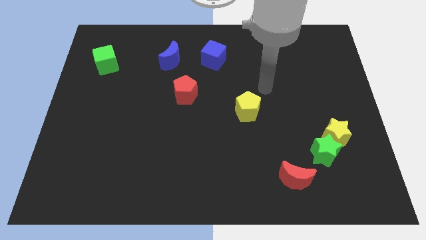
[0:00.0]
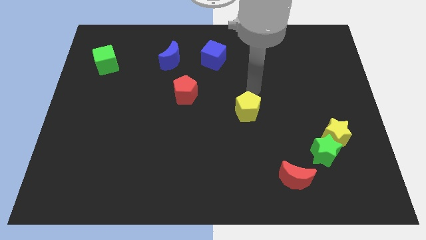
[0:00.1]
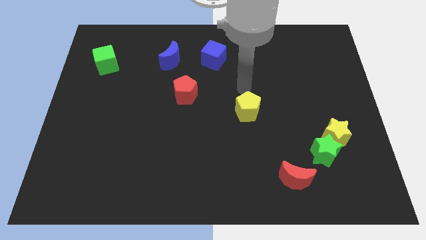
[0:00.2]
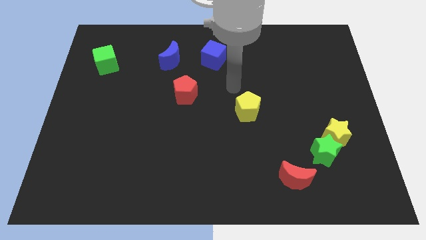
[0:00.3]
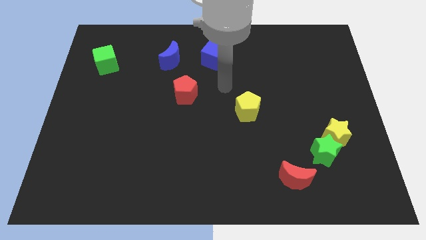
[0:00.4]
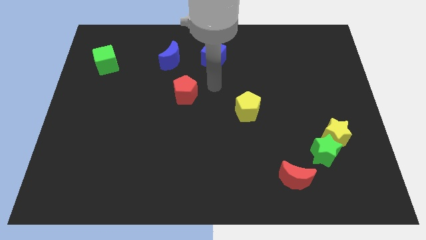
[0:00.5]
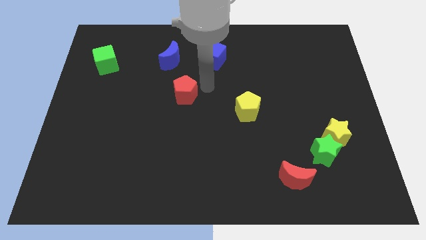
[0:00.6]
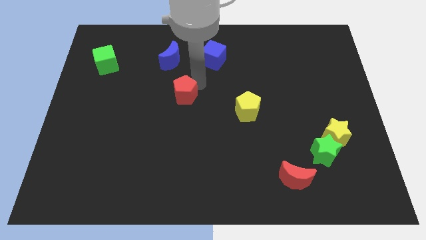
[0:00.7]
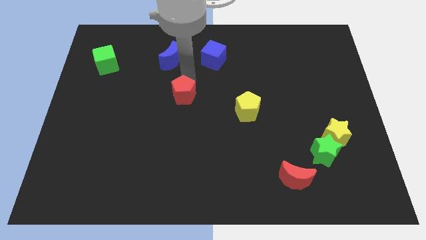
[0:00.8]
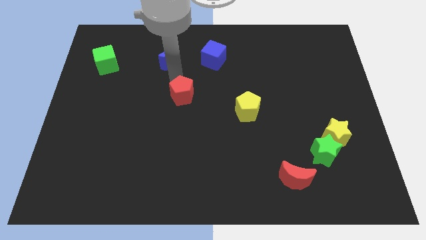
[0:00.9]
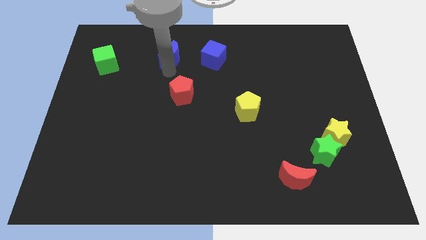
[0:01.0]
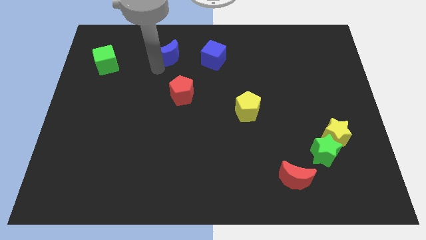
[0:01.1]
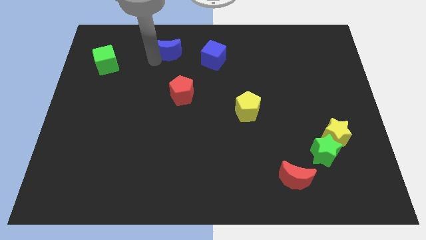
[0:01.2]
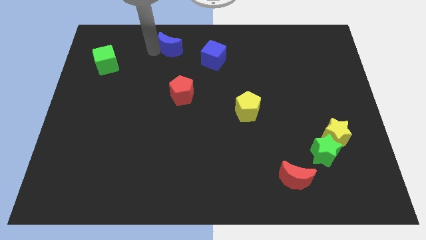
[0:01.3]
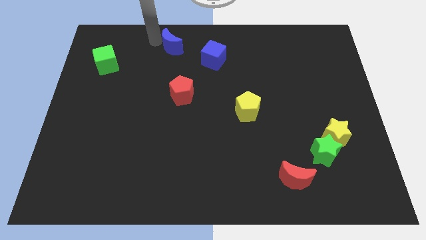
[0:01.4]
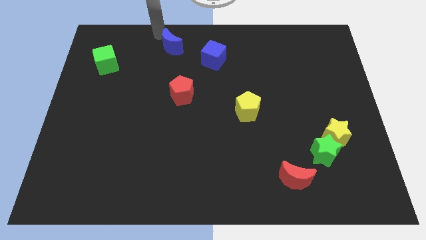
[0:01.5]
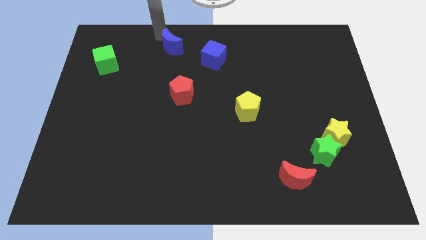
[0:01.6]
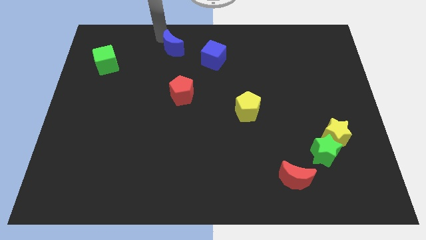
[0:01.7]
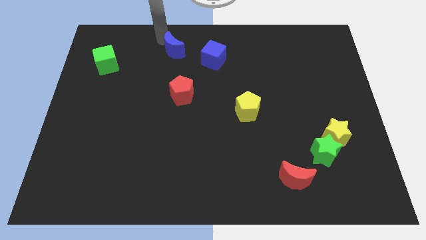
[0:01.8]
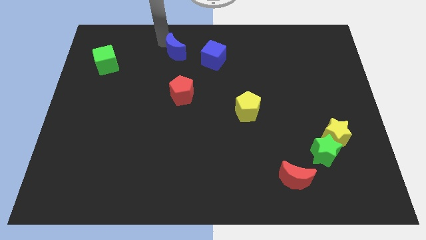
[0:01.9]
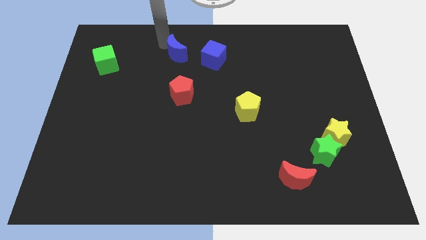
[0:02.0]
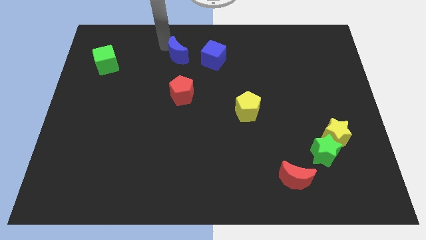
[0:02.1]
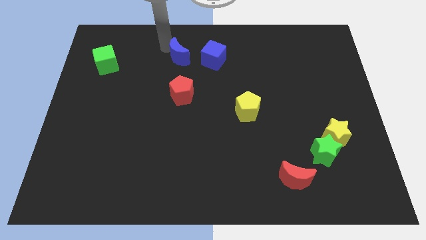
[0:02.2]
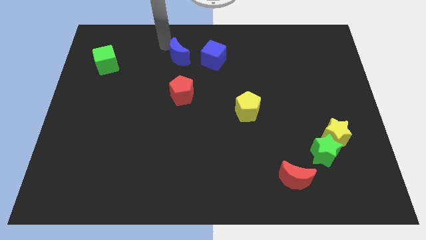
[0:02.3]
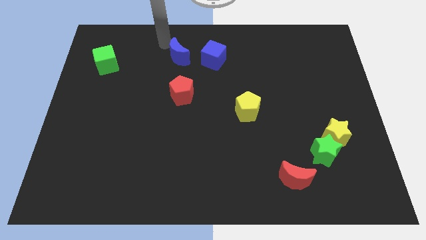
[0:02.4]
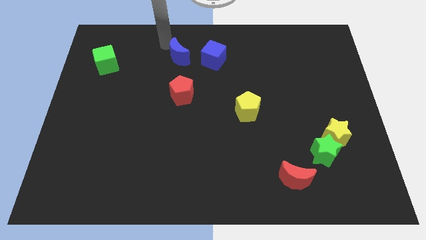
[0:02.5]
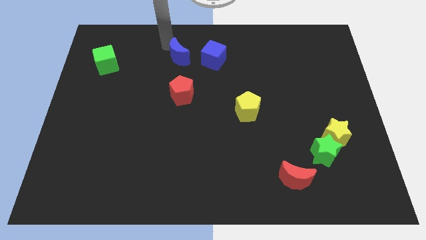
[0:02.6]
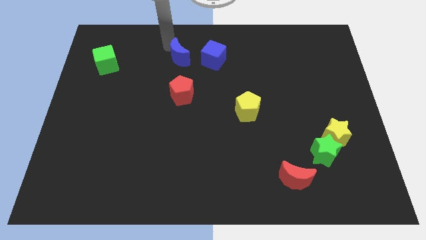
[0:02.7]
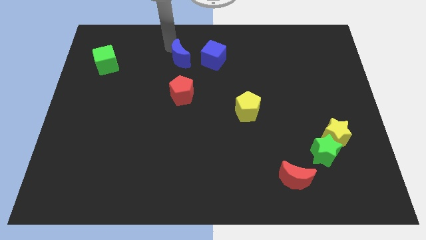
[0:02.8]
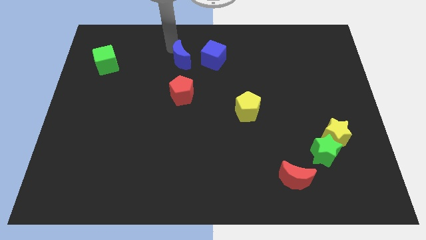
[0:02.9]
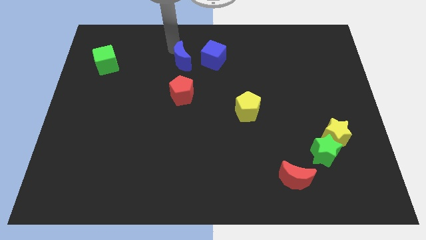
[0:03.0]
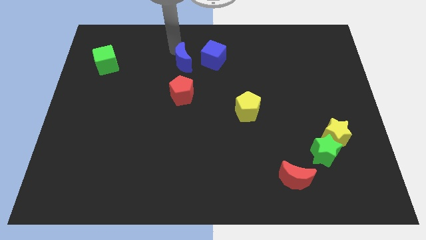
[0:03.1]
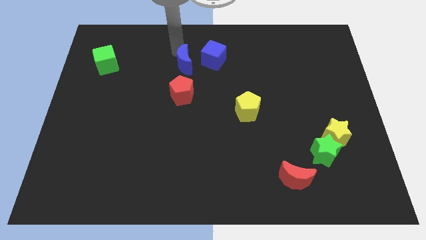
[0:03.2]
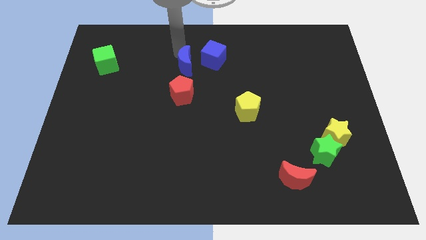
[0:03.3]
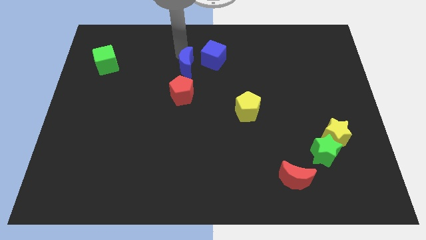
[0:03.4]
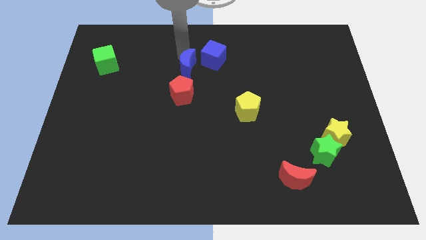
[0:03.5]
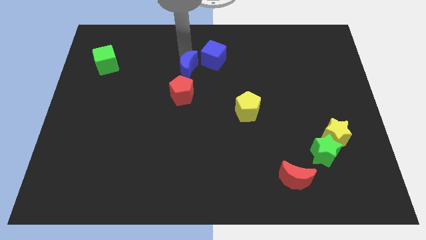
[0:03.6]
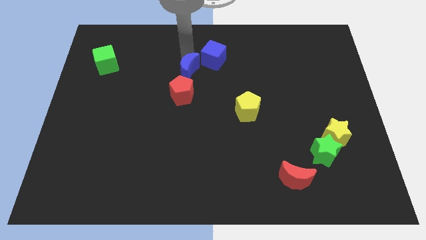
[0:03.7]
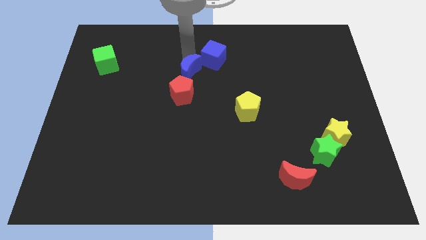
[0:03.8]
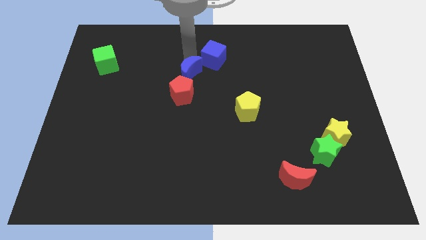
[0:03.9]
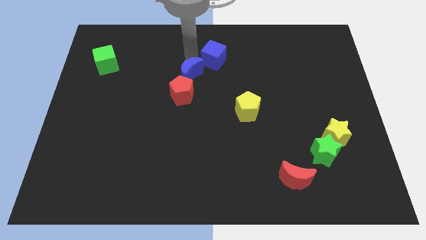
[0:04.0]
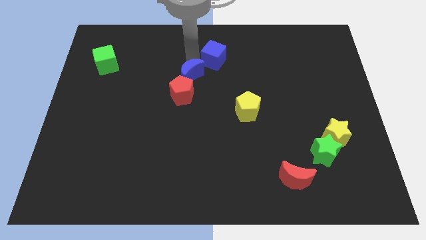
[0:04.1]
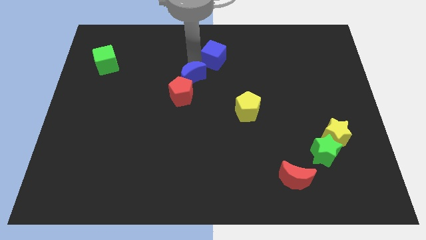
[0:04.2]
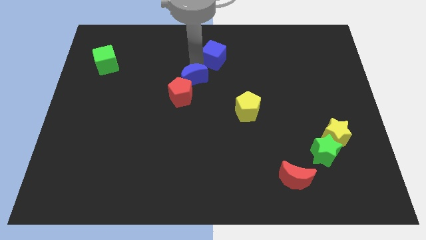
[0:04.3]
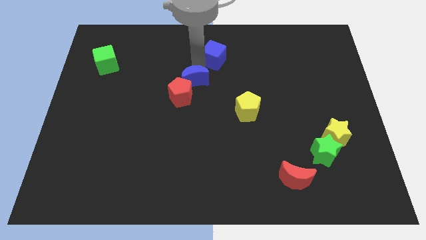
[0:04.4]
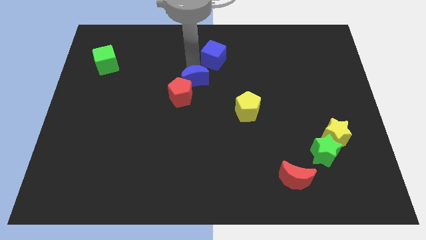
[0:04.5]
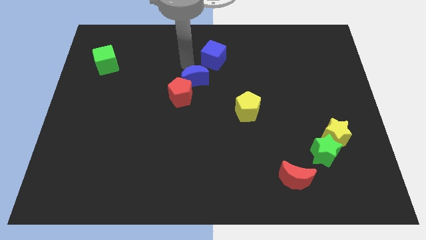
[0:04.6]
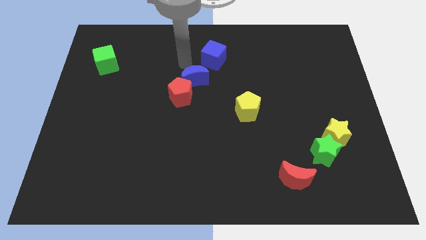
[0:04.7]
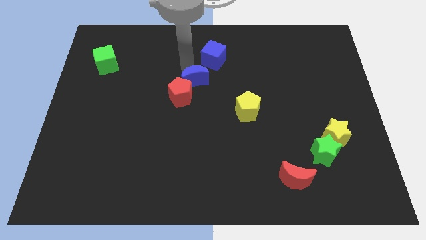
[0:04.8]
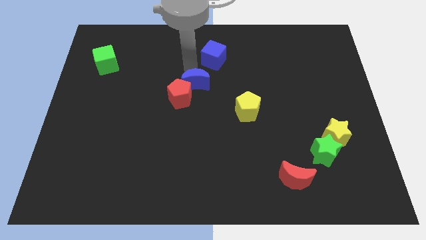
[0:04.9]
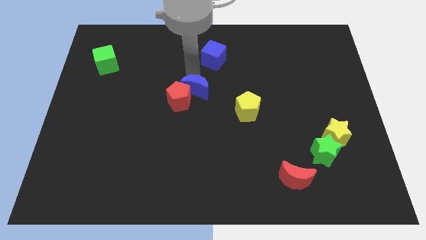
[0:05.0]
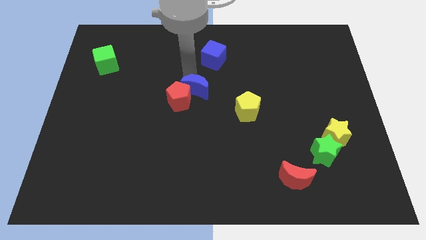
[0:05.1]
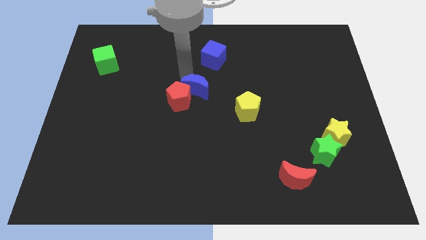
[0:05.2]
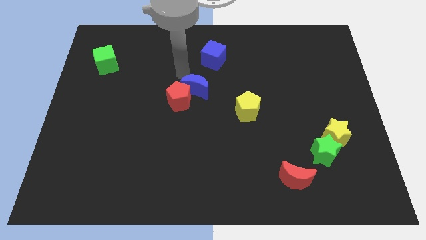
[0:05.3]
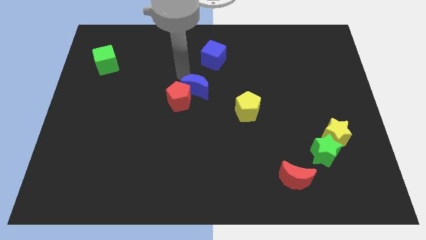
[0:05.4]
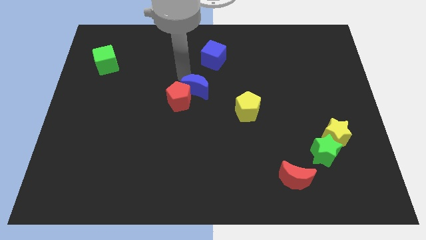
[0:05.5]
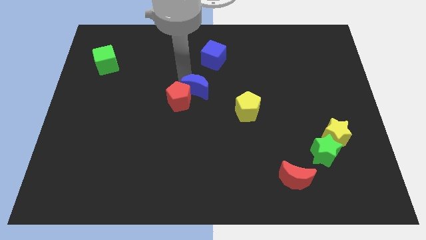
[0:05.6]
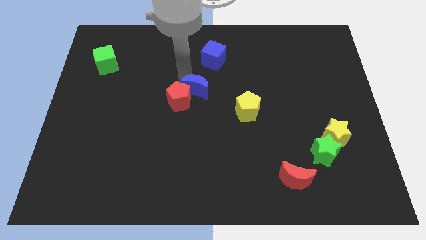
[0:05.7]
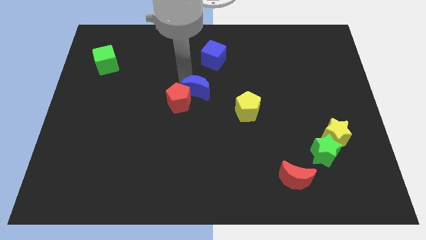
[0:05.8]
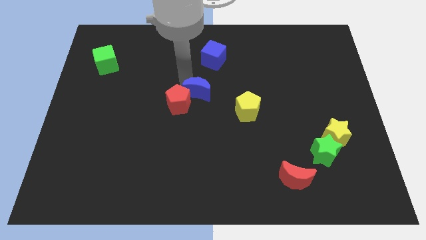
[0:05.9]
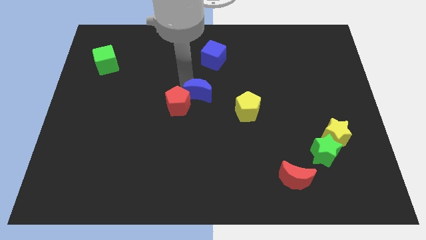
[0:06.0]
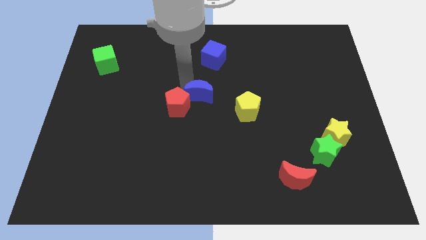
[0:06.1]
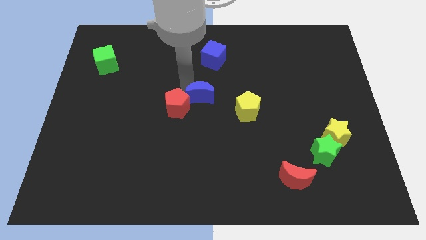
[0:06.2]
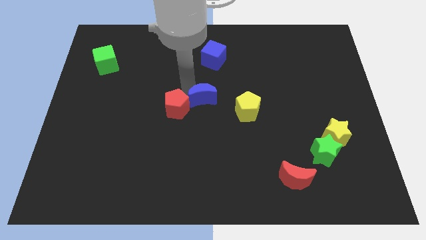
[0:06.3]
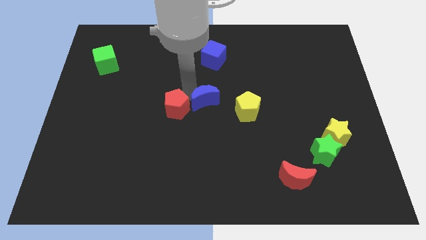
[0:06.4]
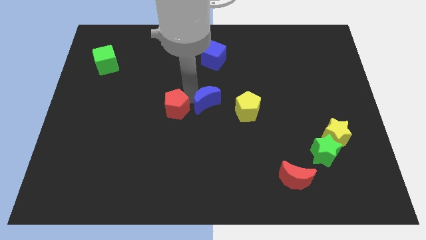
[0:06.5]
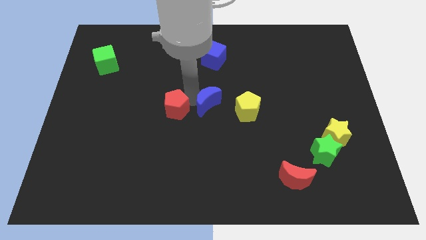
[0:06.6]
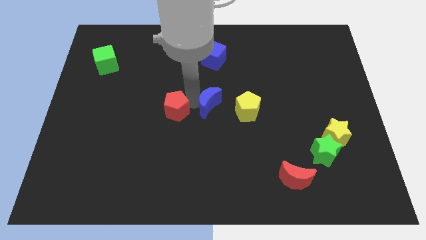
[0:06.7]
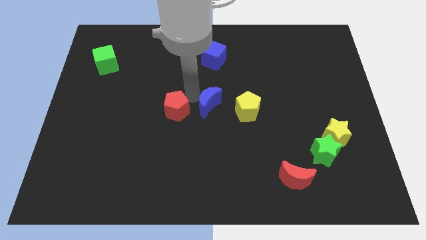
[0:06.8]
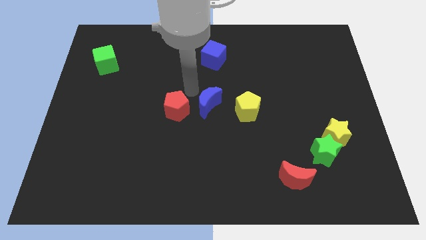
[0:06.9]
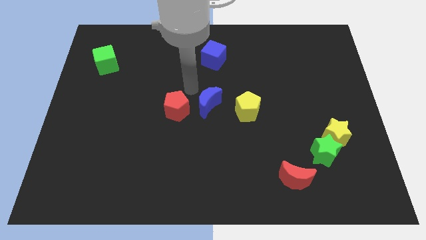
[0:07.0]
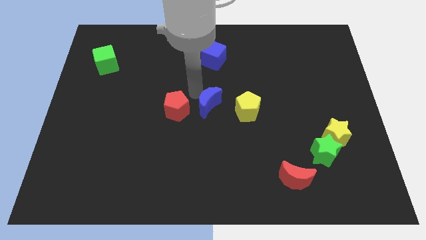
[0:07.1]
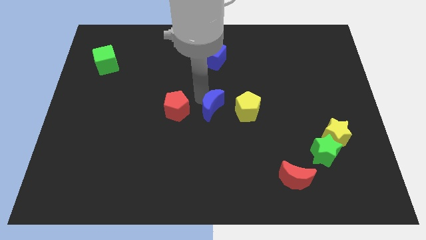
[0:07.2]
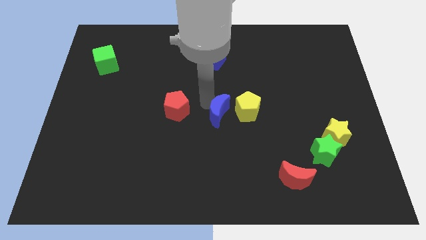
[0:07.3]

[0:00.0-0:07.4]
slide the blue moon down and right diagonally

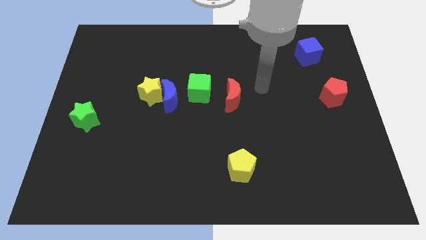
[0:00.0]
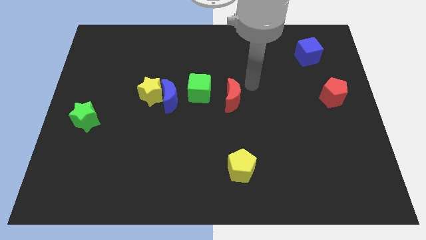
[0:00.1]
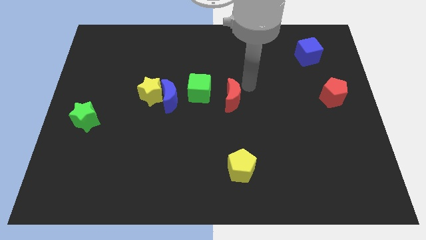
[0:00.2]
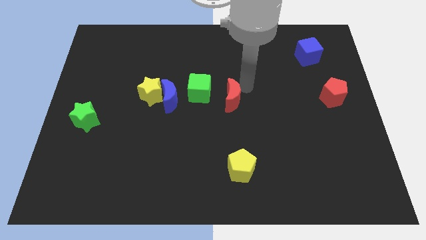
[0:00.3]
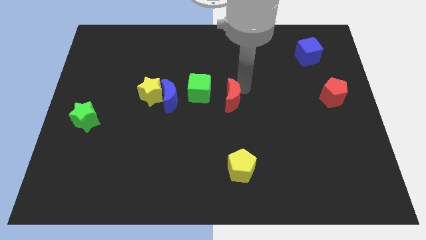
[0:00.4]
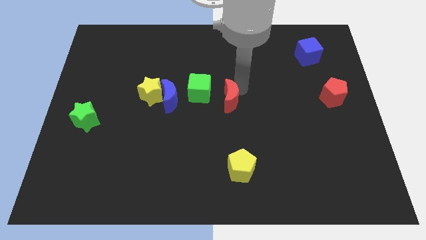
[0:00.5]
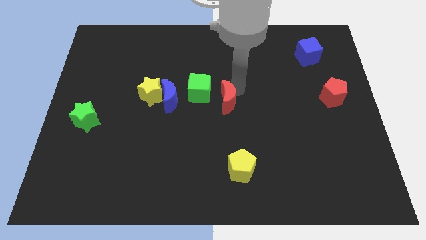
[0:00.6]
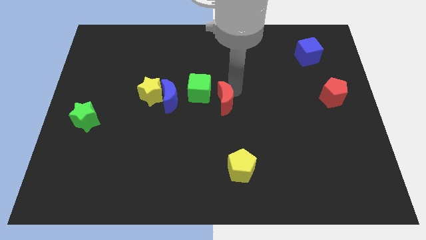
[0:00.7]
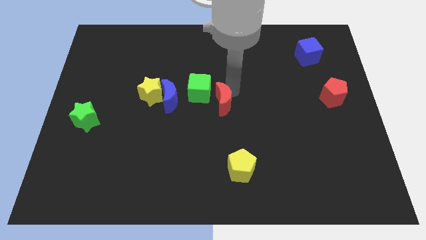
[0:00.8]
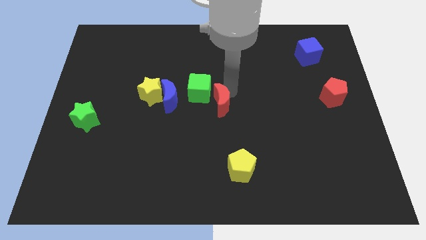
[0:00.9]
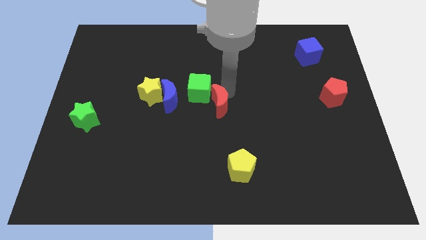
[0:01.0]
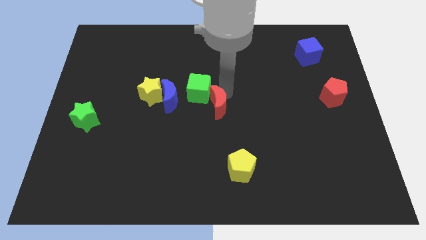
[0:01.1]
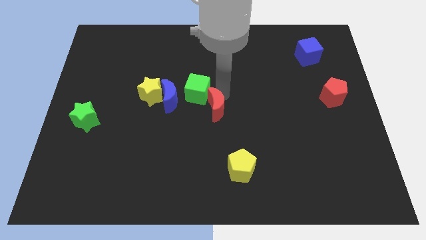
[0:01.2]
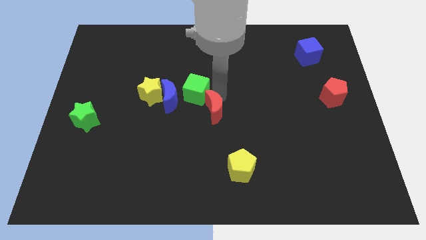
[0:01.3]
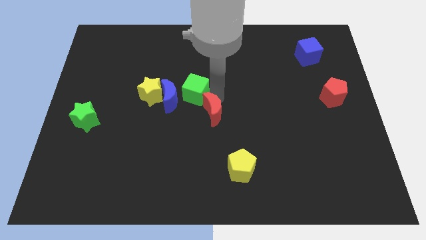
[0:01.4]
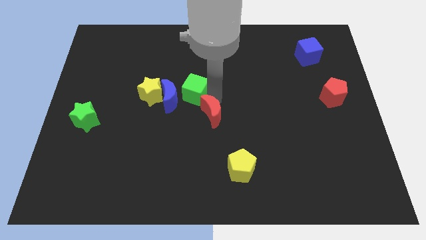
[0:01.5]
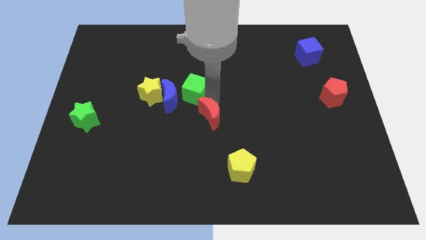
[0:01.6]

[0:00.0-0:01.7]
slightly push the red moon down and left
